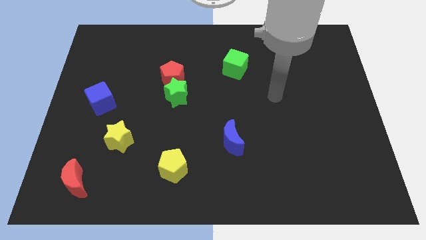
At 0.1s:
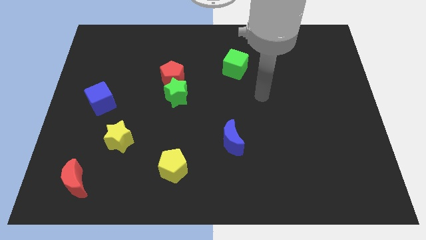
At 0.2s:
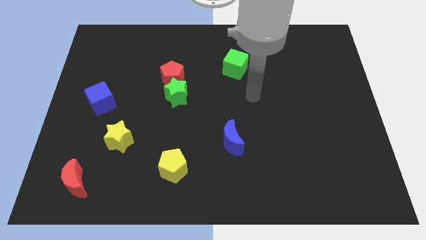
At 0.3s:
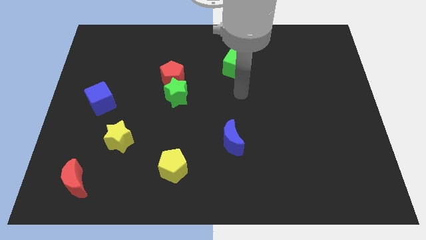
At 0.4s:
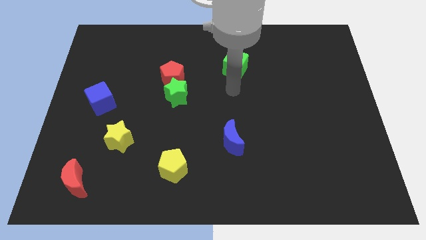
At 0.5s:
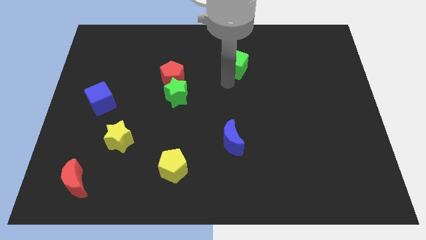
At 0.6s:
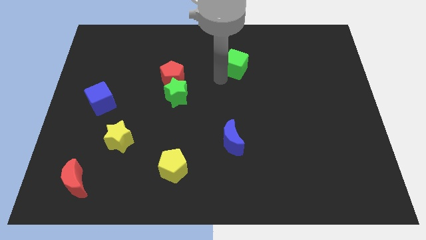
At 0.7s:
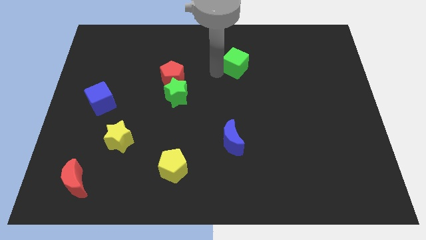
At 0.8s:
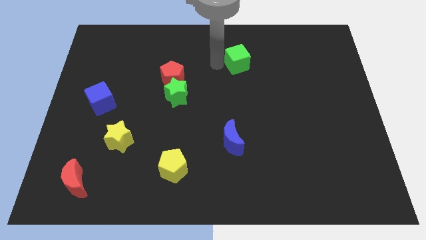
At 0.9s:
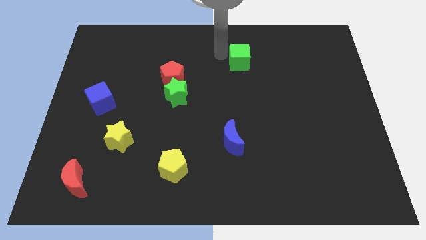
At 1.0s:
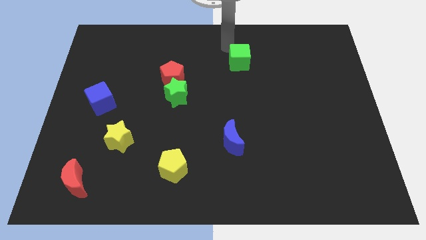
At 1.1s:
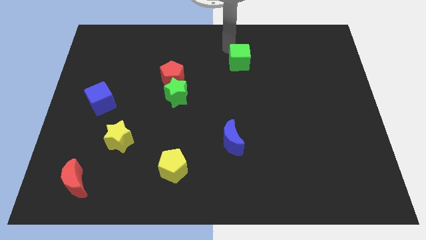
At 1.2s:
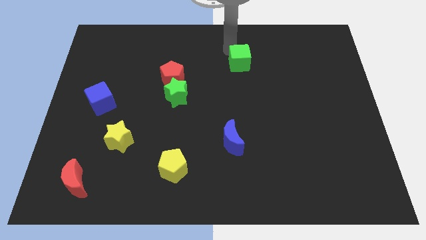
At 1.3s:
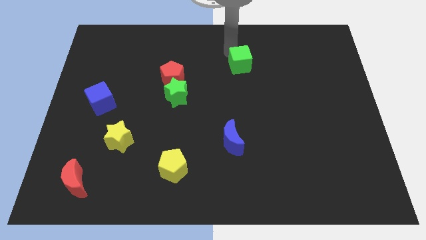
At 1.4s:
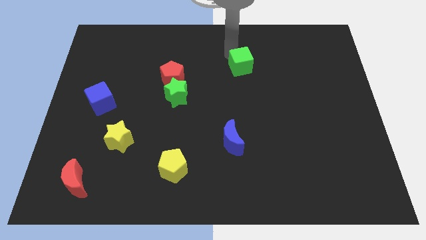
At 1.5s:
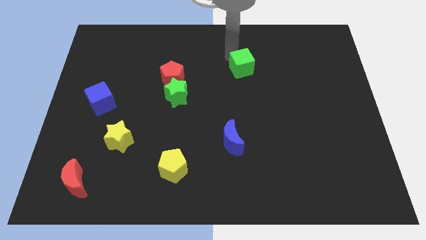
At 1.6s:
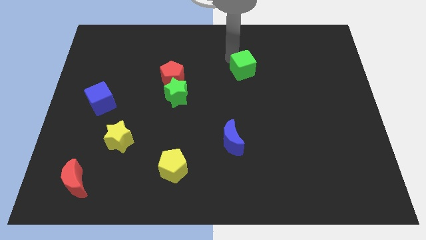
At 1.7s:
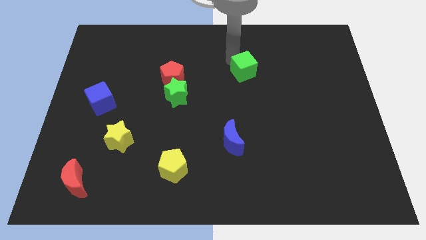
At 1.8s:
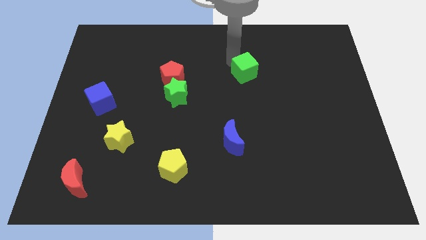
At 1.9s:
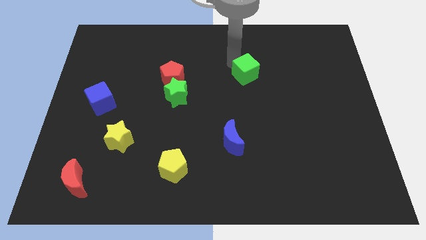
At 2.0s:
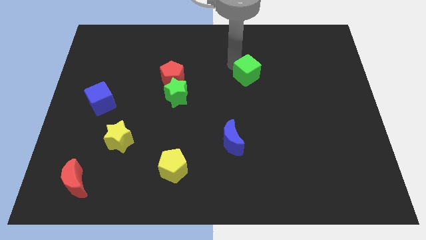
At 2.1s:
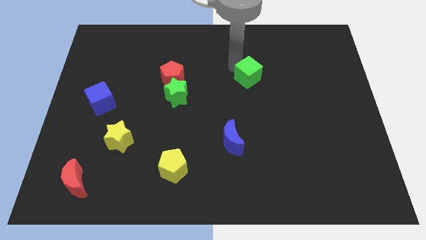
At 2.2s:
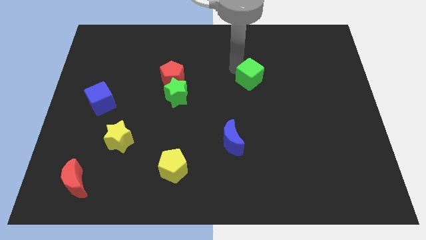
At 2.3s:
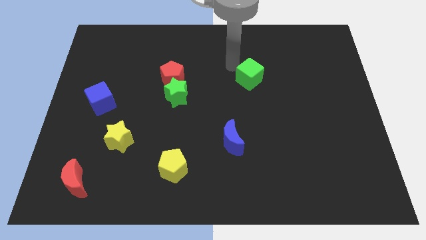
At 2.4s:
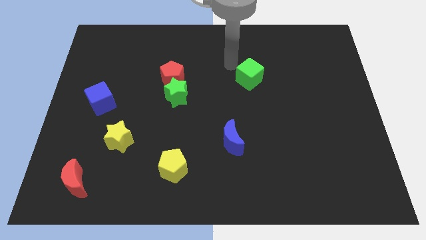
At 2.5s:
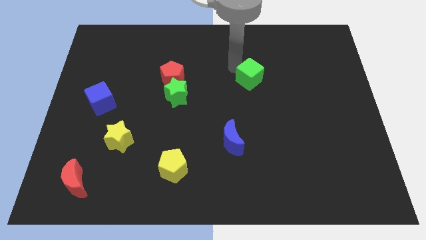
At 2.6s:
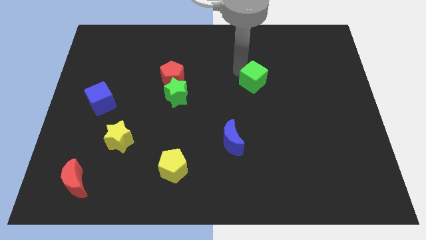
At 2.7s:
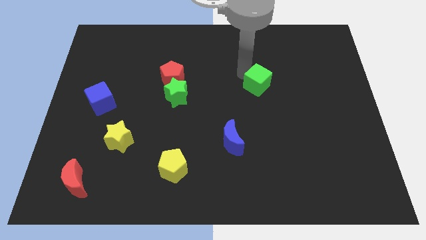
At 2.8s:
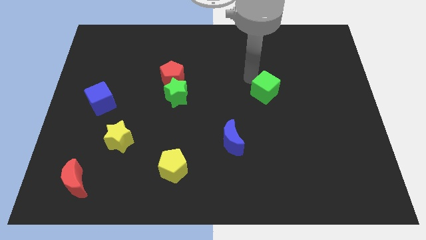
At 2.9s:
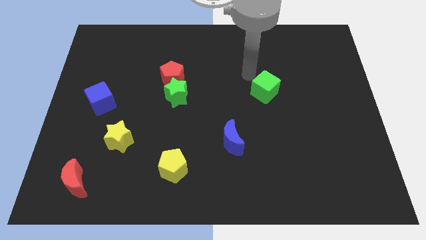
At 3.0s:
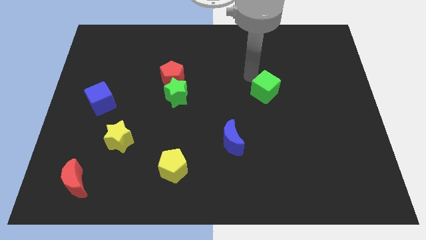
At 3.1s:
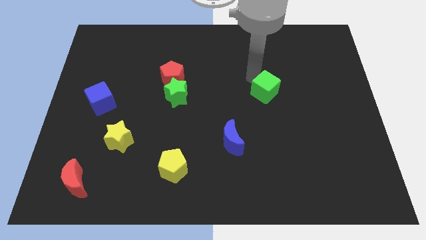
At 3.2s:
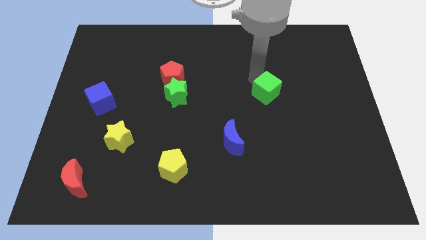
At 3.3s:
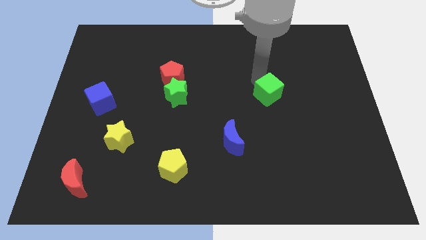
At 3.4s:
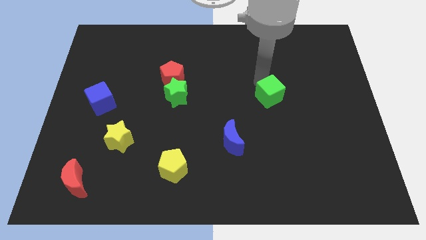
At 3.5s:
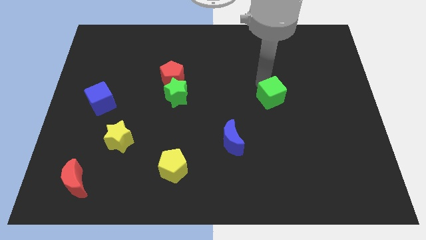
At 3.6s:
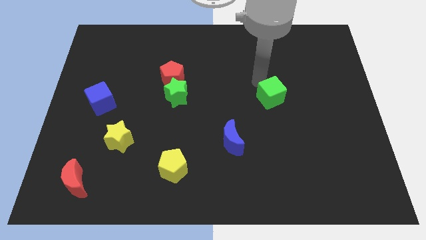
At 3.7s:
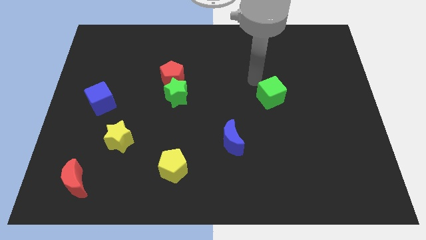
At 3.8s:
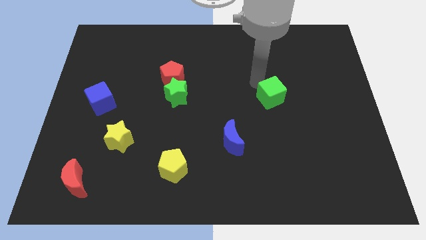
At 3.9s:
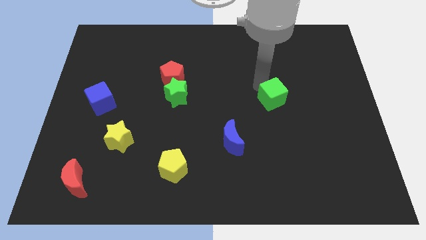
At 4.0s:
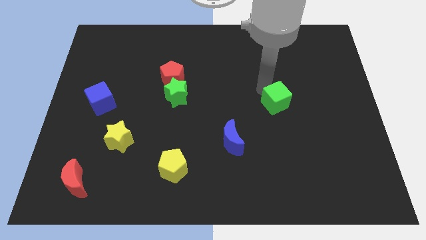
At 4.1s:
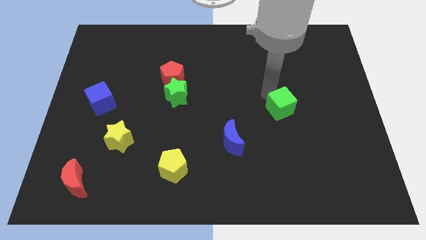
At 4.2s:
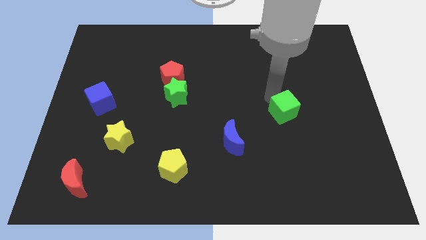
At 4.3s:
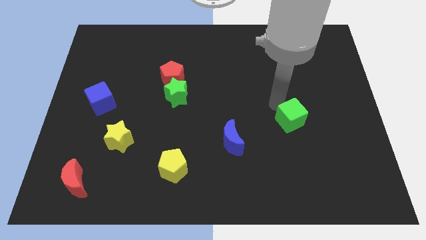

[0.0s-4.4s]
slide the green cube diagonally down and right

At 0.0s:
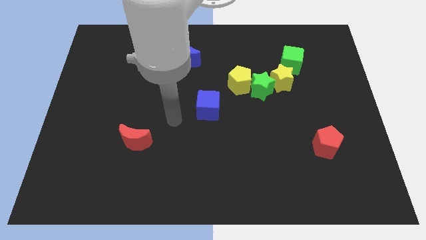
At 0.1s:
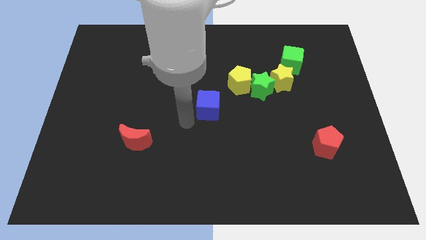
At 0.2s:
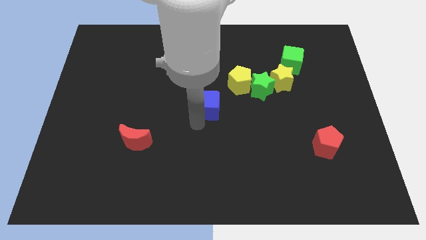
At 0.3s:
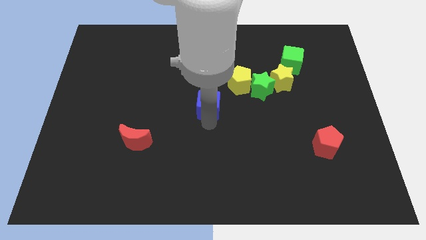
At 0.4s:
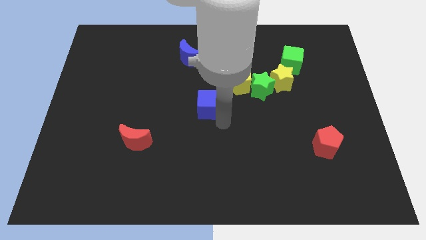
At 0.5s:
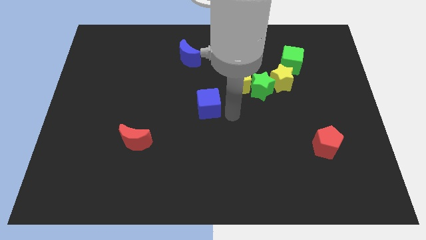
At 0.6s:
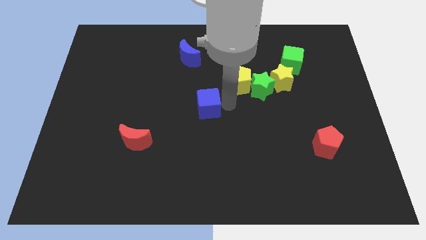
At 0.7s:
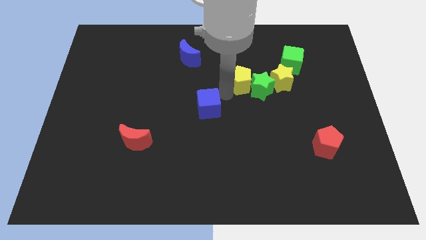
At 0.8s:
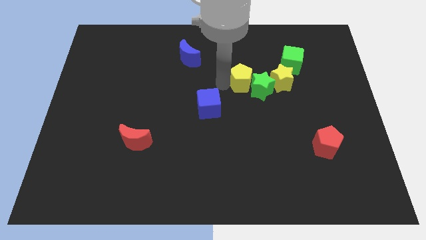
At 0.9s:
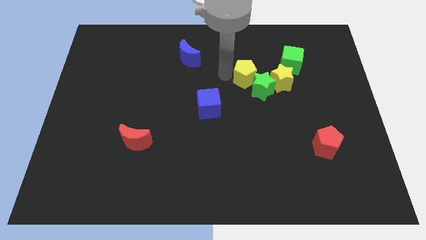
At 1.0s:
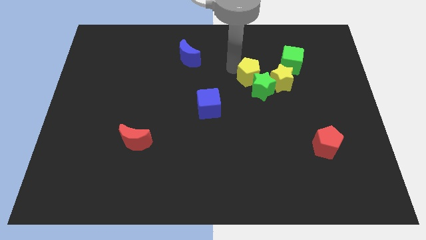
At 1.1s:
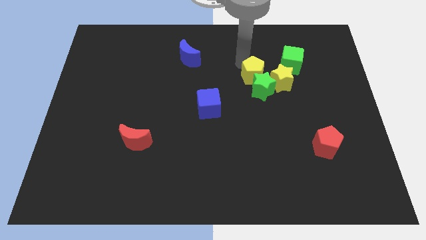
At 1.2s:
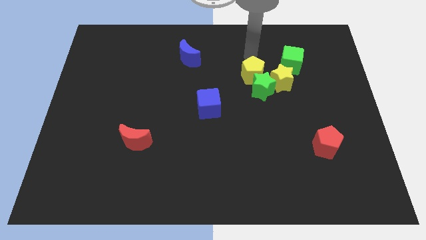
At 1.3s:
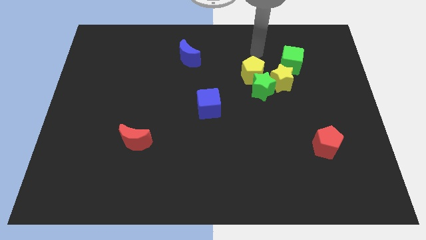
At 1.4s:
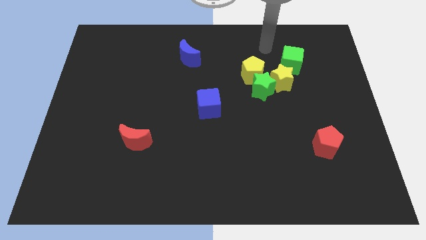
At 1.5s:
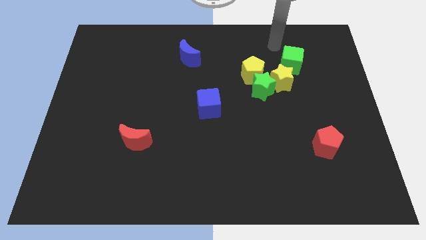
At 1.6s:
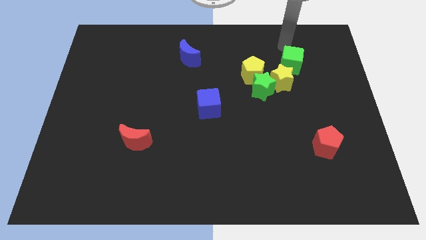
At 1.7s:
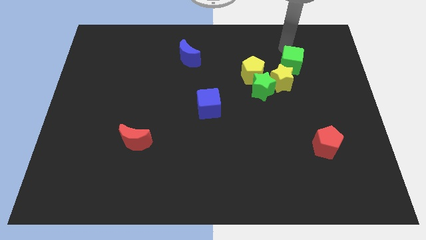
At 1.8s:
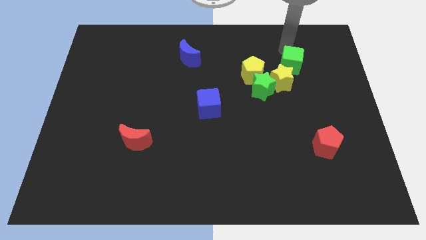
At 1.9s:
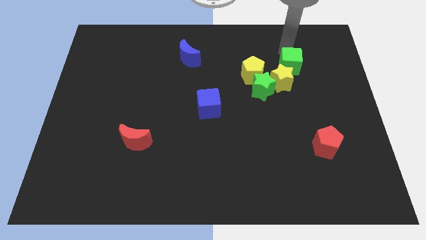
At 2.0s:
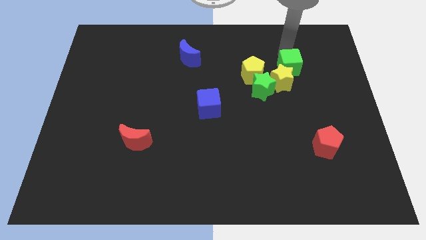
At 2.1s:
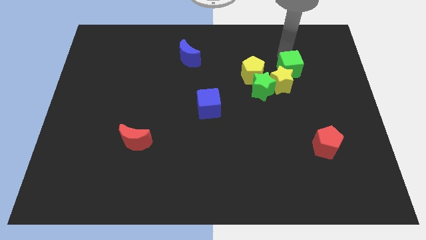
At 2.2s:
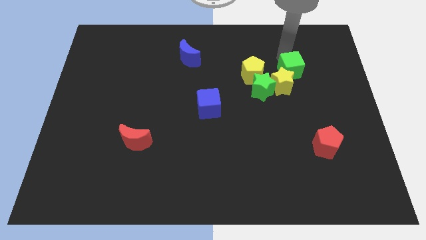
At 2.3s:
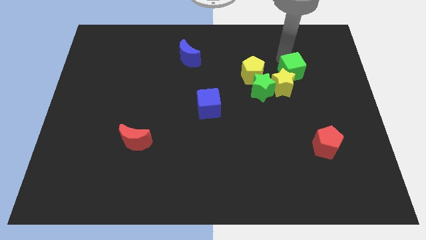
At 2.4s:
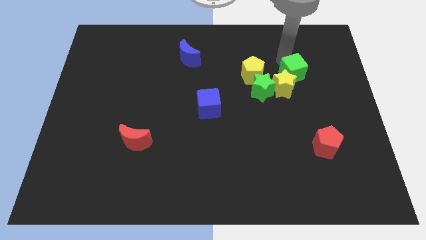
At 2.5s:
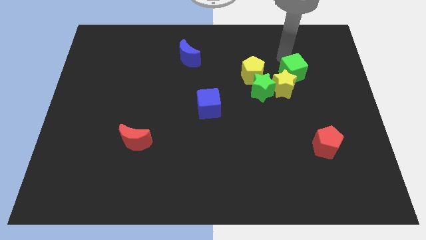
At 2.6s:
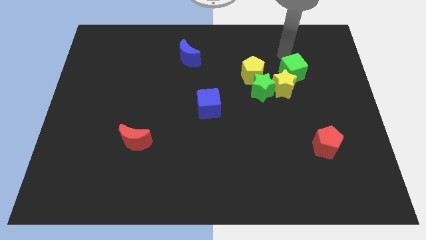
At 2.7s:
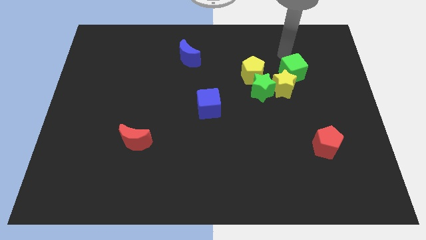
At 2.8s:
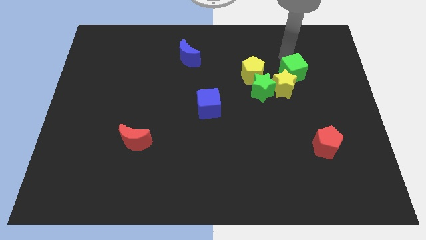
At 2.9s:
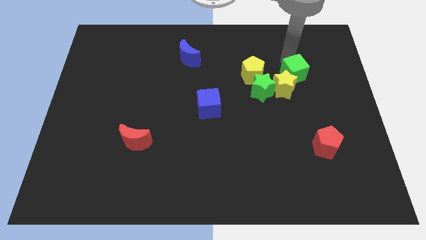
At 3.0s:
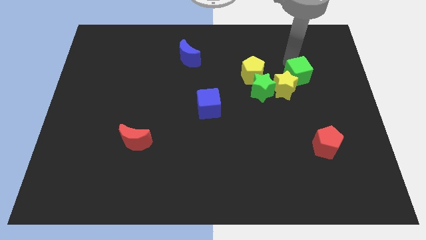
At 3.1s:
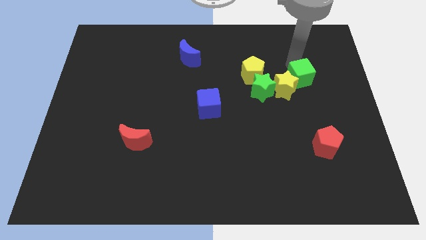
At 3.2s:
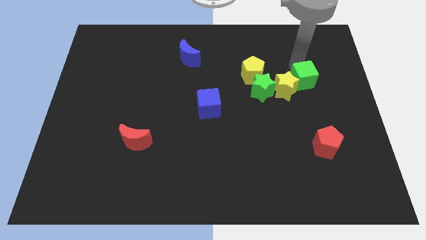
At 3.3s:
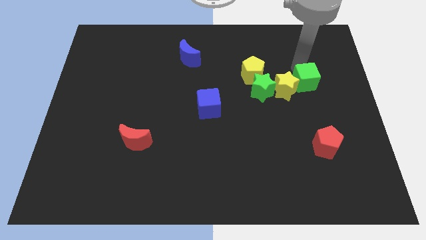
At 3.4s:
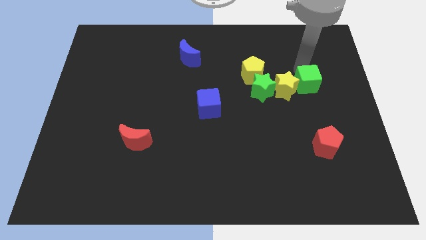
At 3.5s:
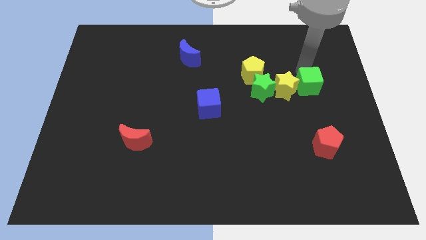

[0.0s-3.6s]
push the green cube a bit downwards

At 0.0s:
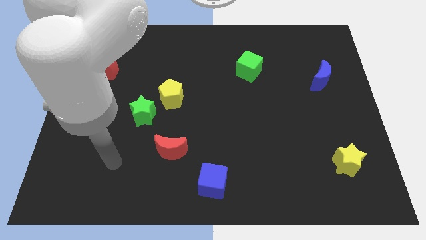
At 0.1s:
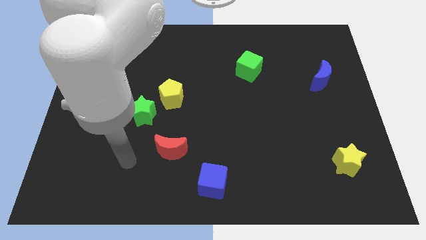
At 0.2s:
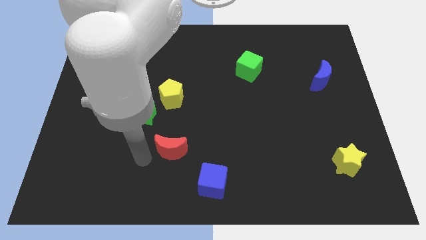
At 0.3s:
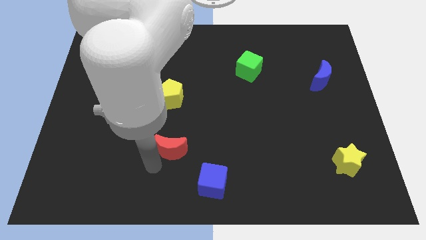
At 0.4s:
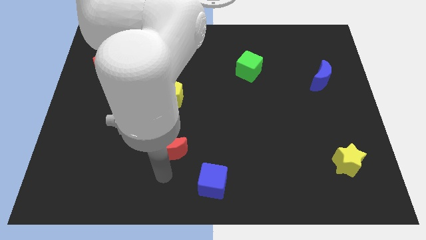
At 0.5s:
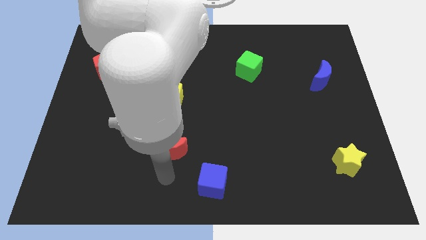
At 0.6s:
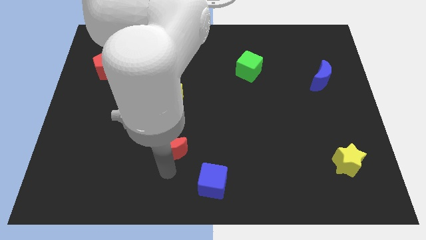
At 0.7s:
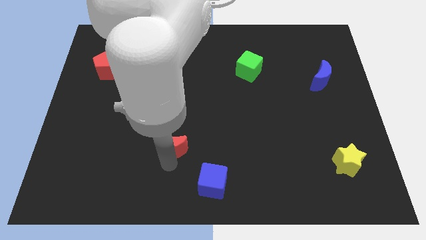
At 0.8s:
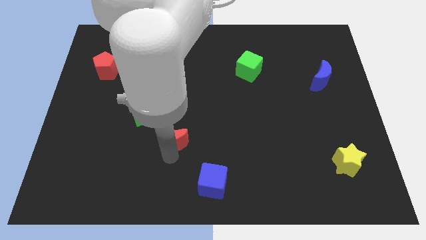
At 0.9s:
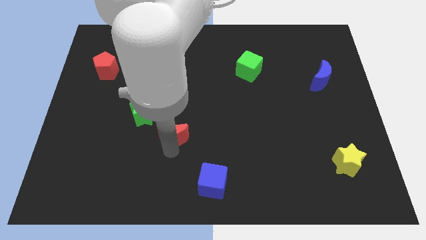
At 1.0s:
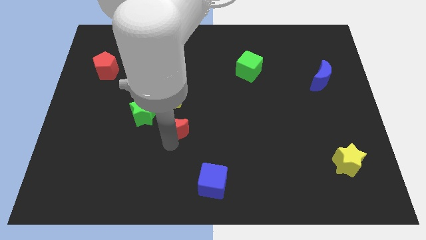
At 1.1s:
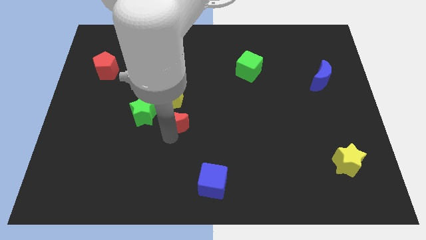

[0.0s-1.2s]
slightly push the red moon up
